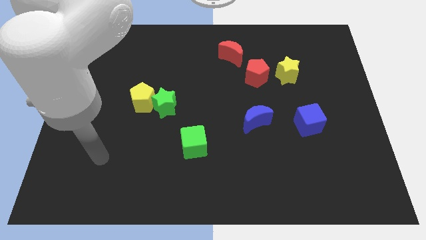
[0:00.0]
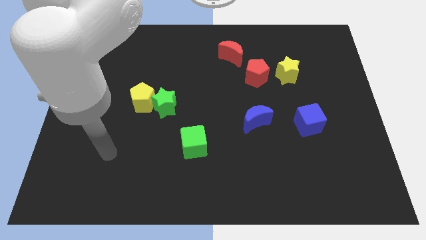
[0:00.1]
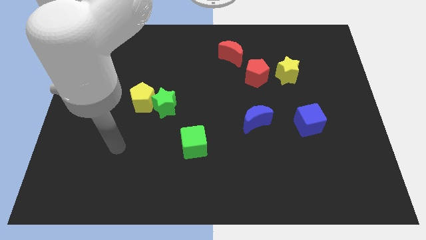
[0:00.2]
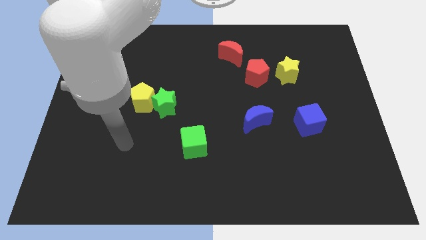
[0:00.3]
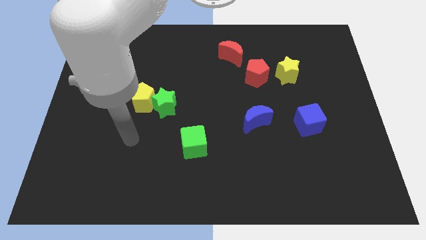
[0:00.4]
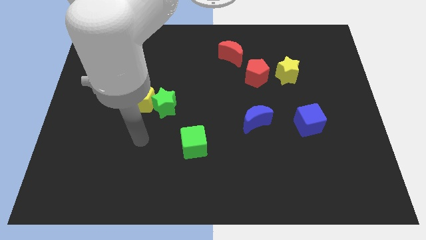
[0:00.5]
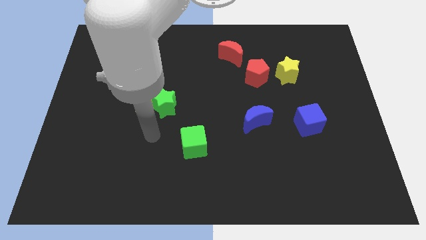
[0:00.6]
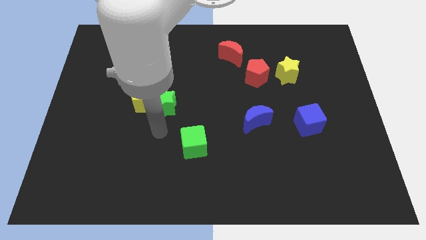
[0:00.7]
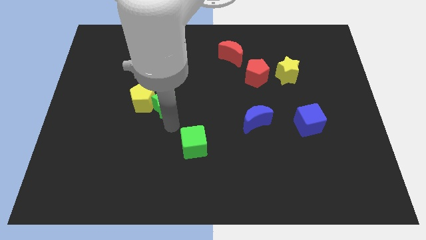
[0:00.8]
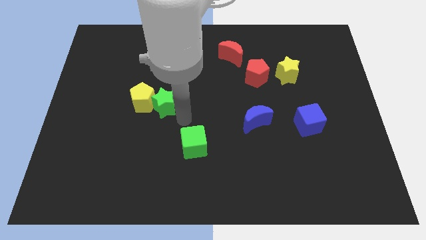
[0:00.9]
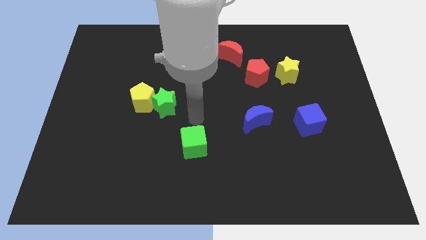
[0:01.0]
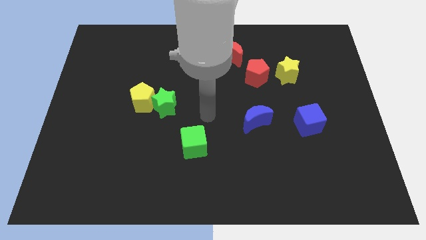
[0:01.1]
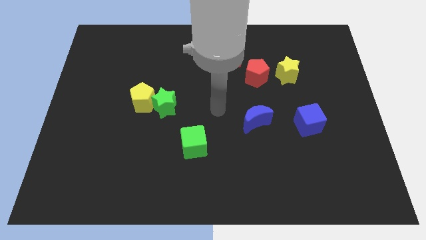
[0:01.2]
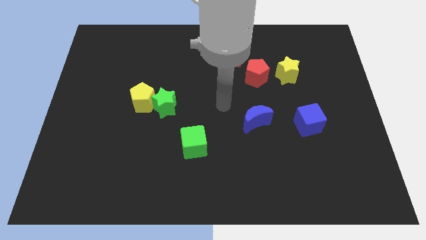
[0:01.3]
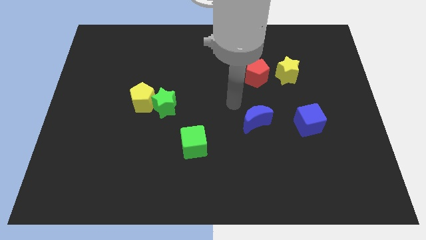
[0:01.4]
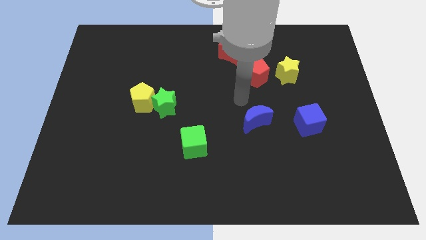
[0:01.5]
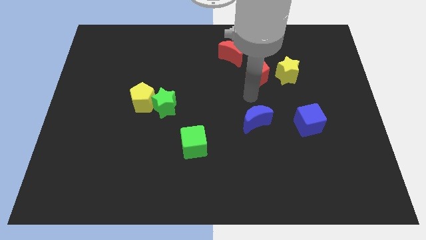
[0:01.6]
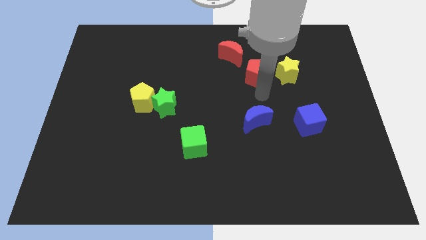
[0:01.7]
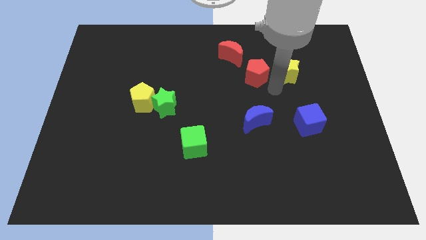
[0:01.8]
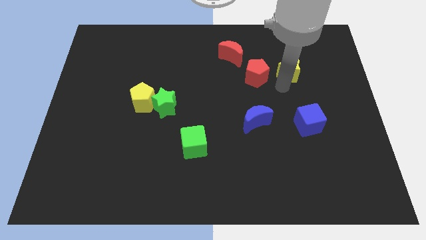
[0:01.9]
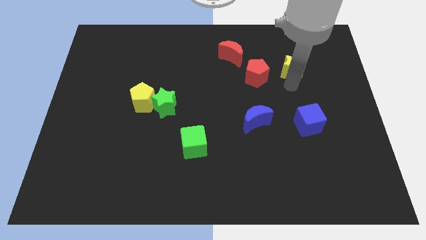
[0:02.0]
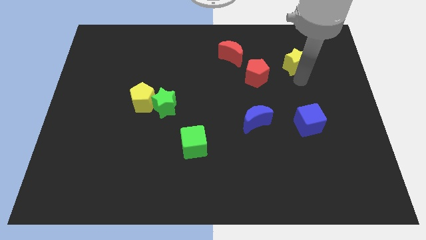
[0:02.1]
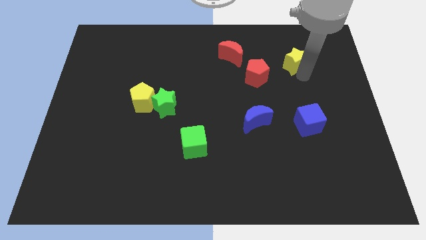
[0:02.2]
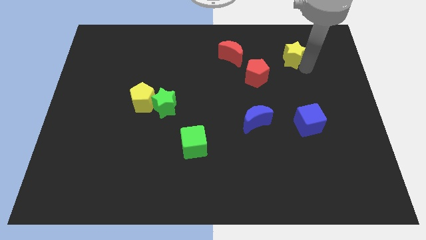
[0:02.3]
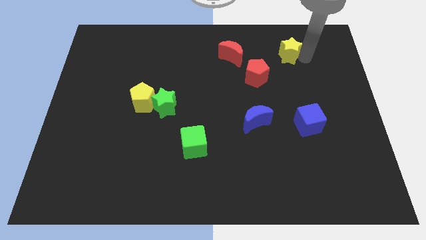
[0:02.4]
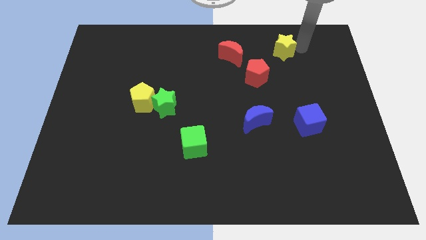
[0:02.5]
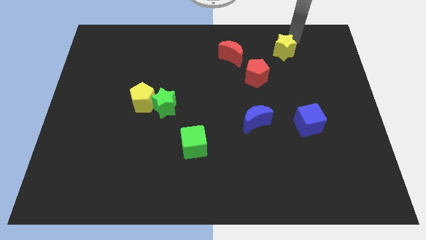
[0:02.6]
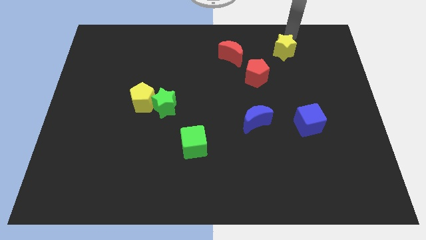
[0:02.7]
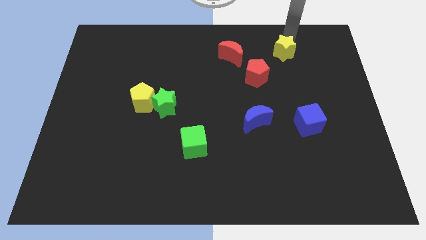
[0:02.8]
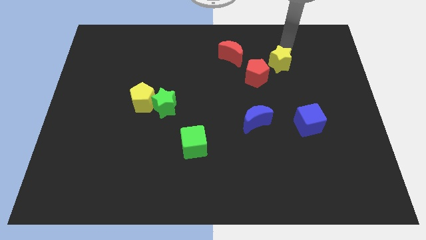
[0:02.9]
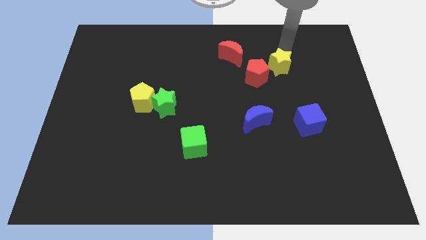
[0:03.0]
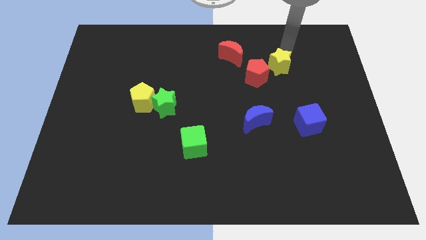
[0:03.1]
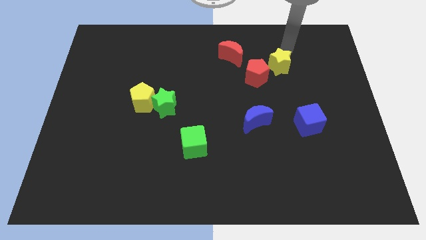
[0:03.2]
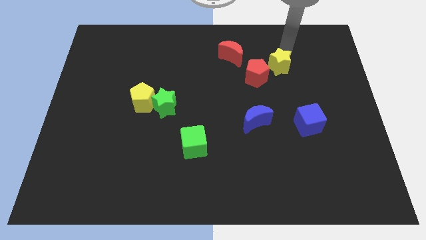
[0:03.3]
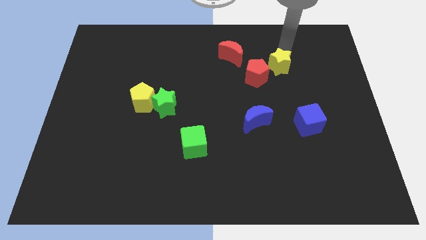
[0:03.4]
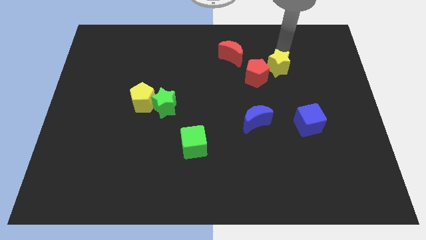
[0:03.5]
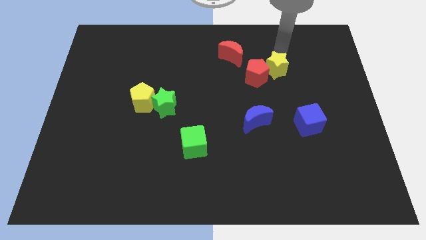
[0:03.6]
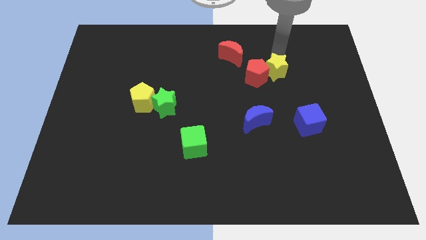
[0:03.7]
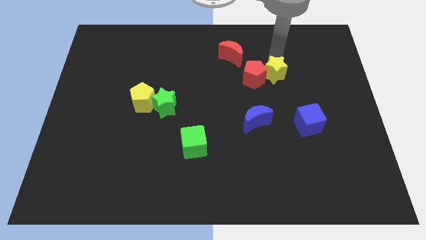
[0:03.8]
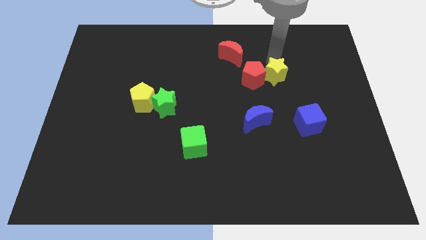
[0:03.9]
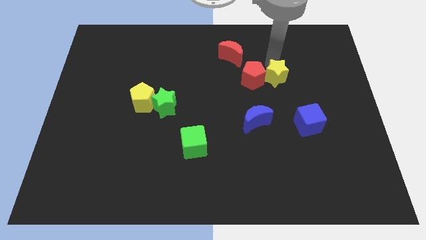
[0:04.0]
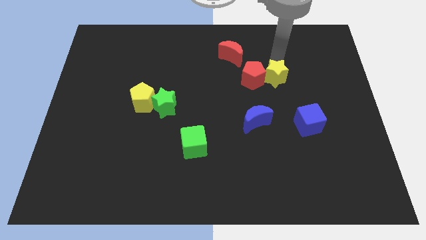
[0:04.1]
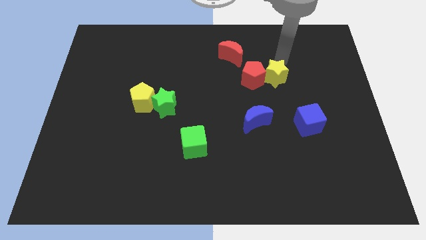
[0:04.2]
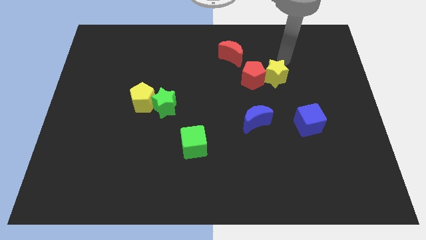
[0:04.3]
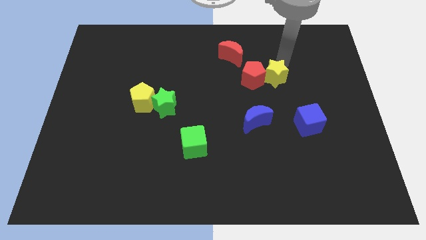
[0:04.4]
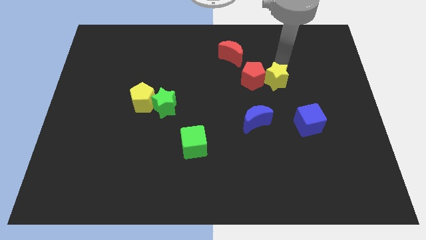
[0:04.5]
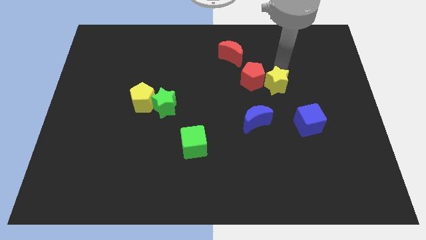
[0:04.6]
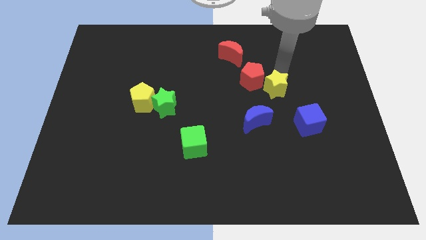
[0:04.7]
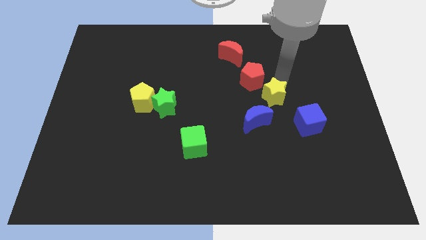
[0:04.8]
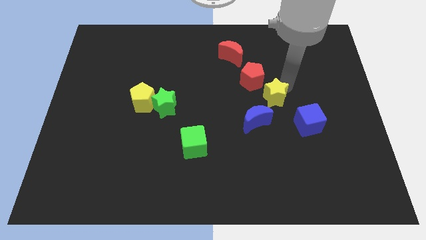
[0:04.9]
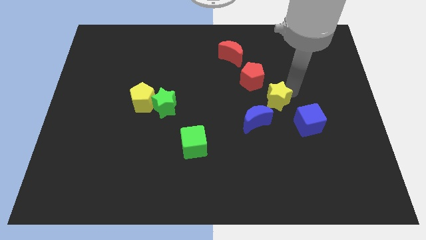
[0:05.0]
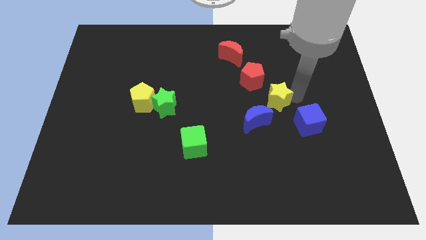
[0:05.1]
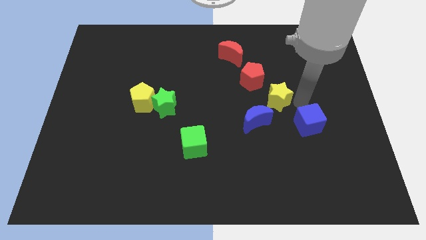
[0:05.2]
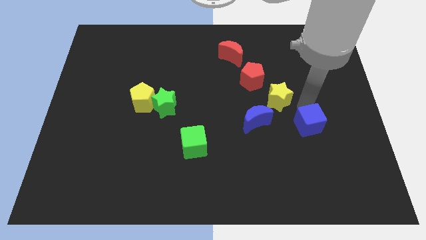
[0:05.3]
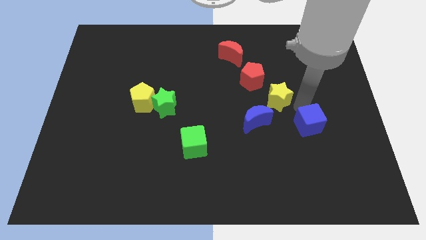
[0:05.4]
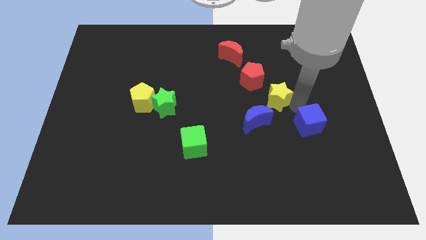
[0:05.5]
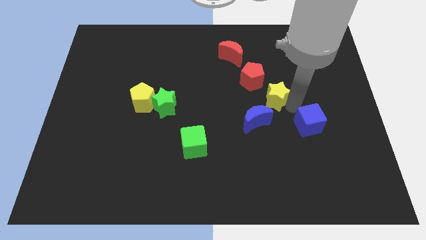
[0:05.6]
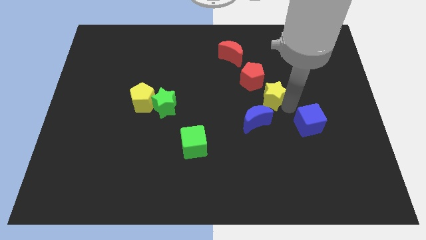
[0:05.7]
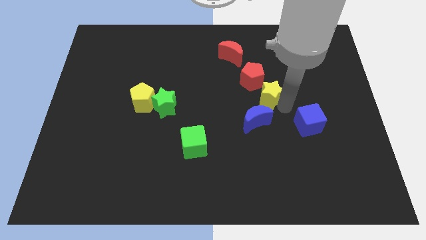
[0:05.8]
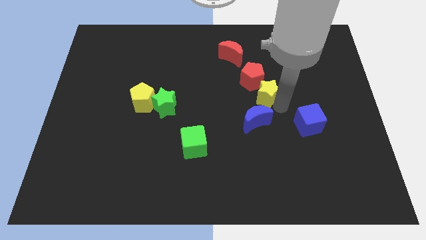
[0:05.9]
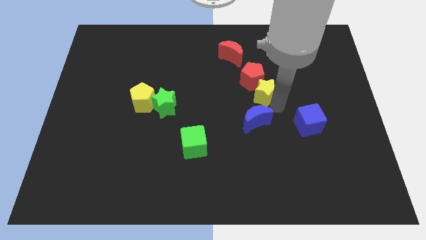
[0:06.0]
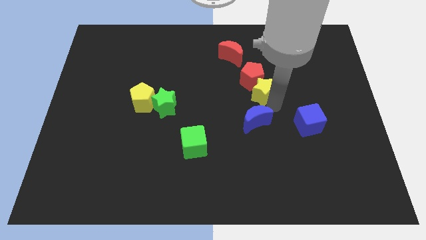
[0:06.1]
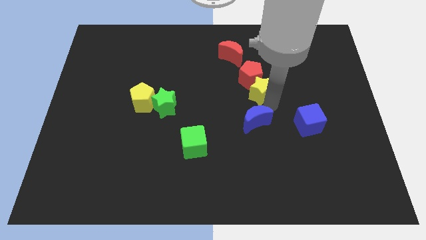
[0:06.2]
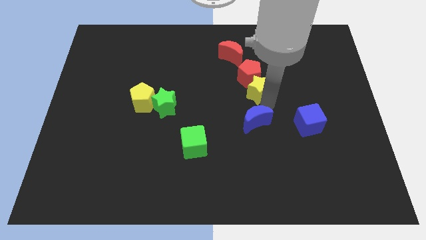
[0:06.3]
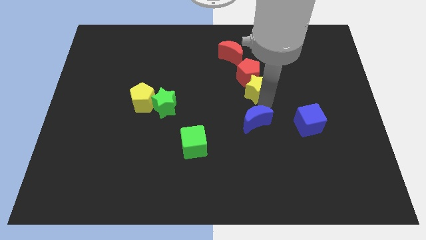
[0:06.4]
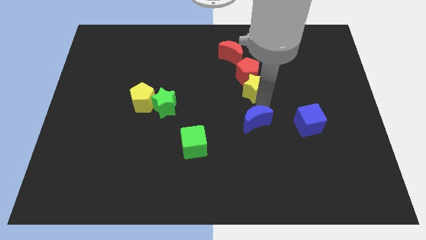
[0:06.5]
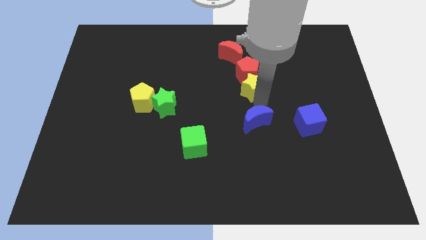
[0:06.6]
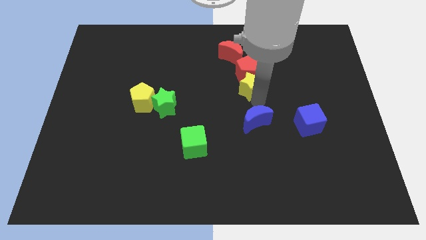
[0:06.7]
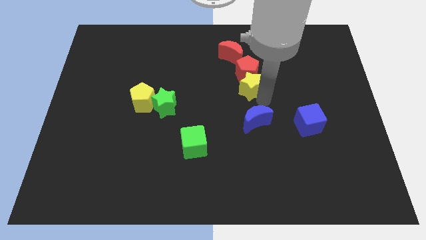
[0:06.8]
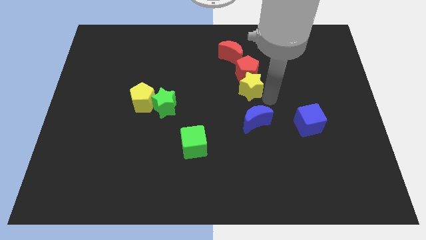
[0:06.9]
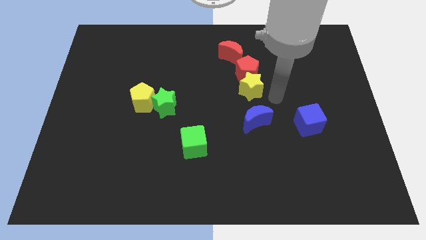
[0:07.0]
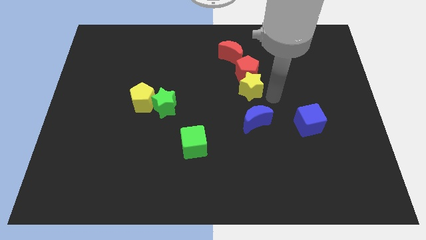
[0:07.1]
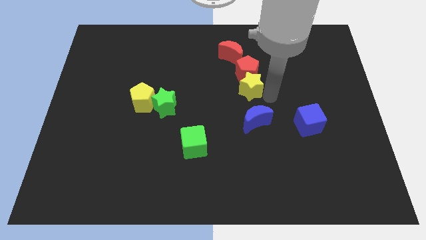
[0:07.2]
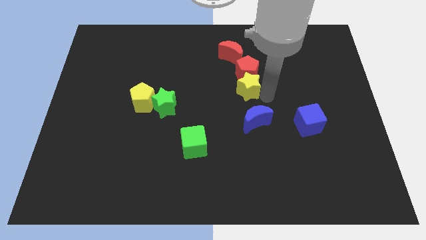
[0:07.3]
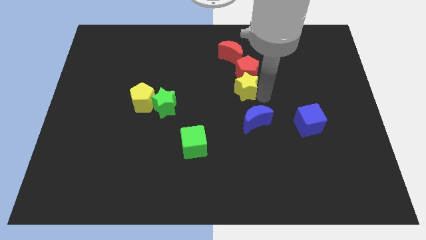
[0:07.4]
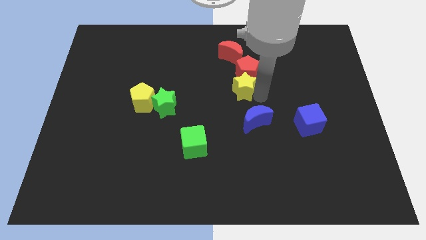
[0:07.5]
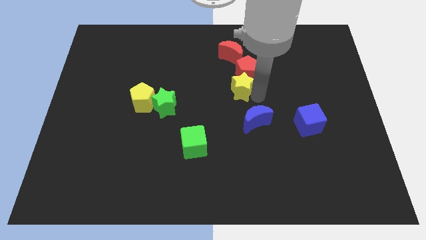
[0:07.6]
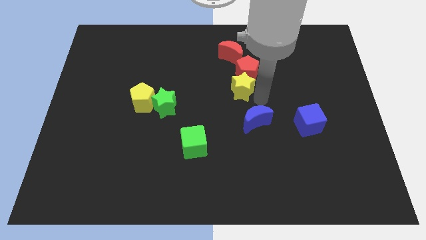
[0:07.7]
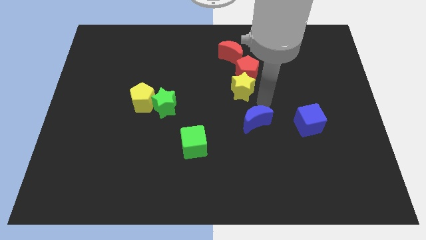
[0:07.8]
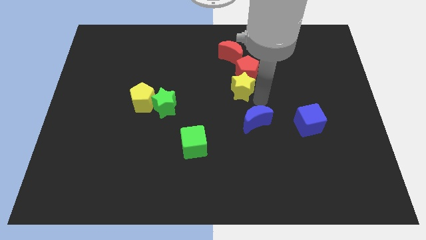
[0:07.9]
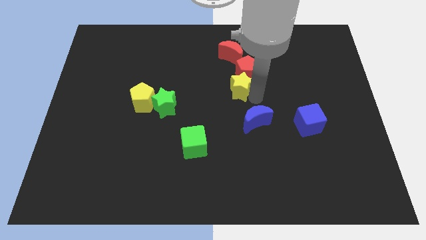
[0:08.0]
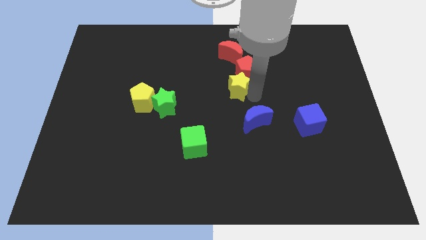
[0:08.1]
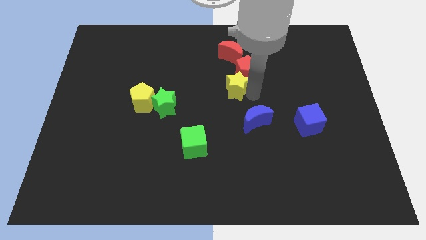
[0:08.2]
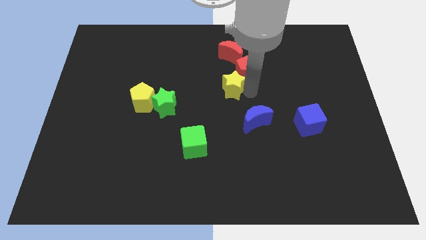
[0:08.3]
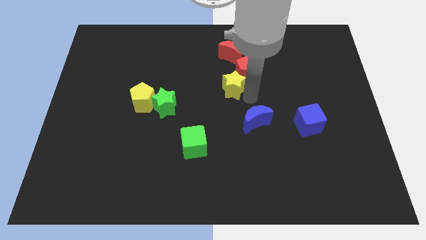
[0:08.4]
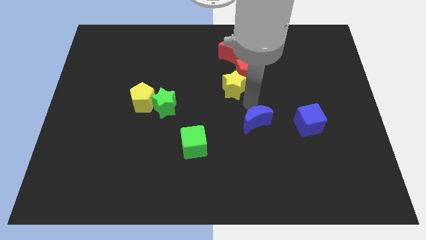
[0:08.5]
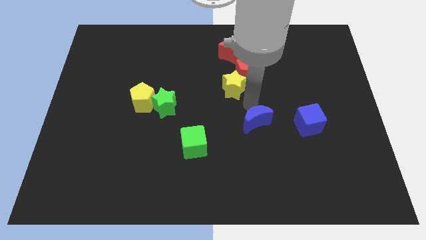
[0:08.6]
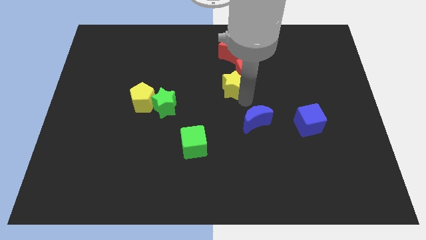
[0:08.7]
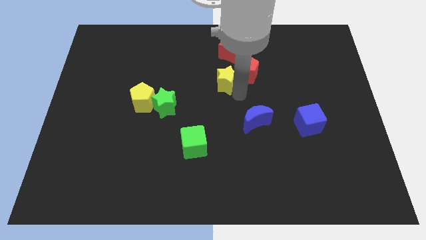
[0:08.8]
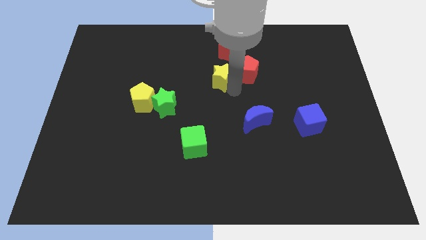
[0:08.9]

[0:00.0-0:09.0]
move the yellow star to the bottom left of the red moon
